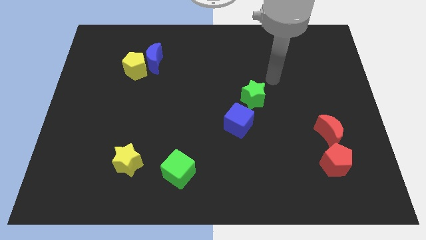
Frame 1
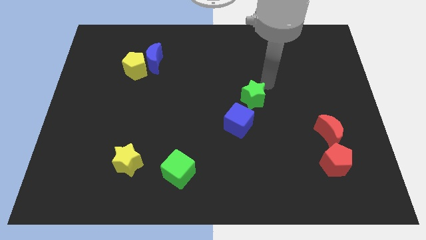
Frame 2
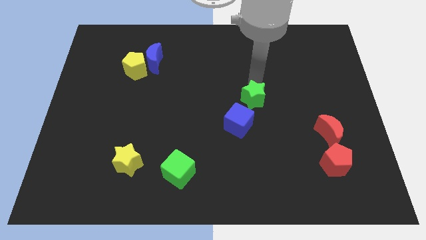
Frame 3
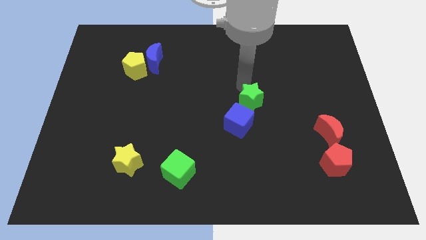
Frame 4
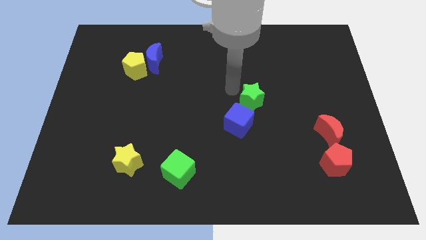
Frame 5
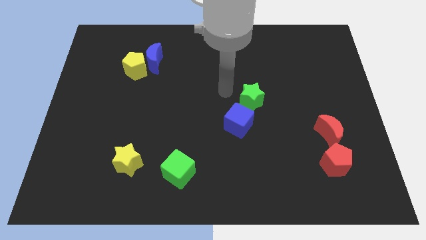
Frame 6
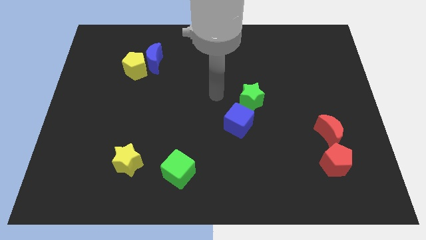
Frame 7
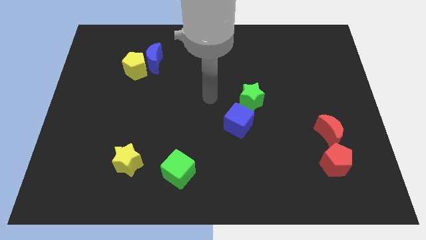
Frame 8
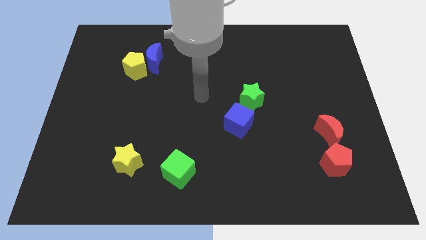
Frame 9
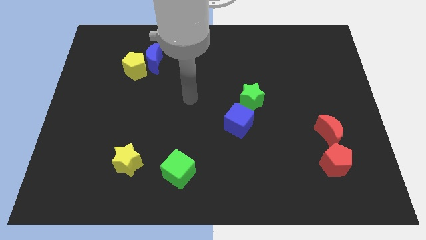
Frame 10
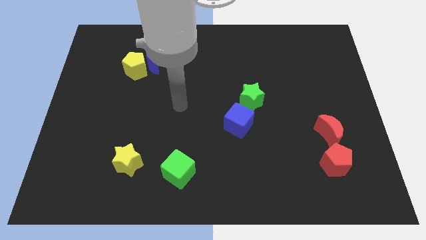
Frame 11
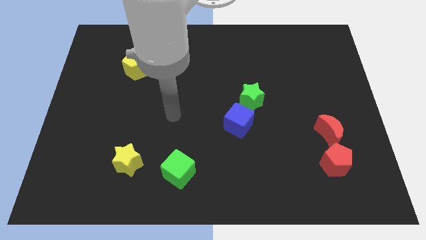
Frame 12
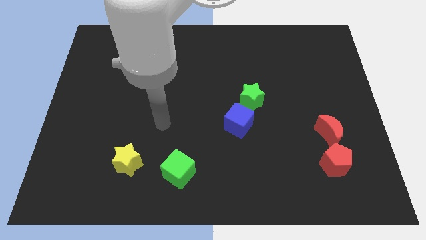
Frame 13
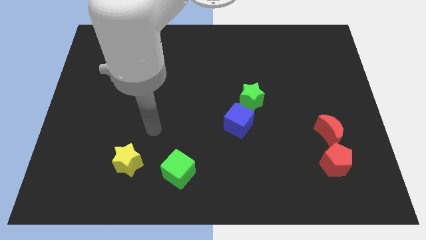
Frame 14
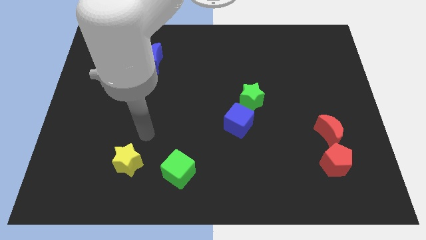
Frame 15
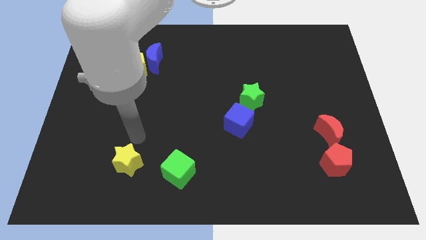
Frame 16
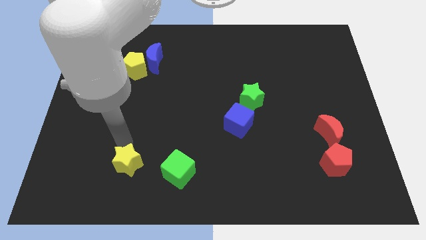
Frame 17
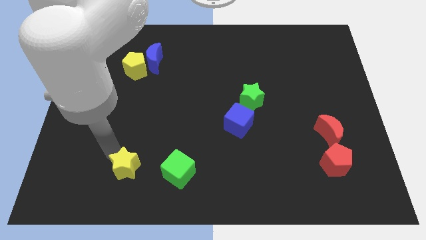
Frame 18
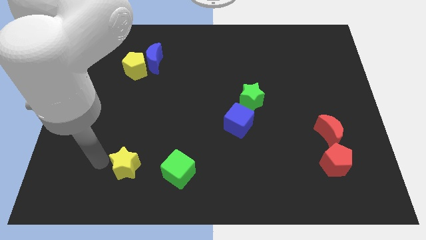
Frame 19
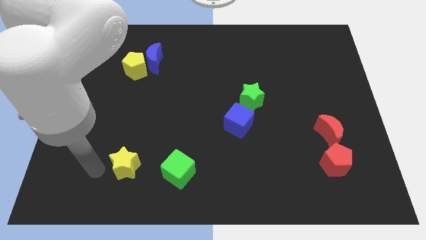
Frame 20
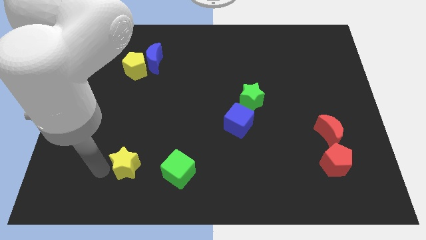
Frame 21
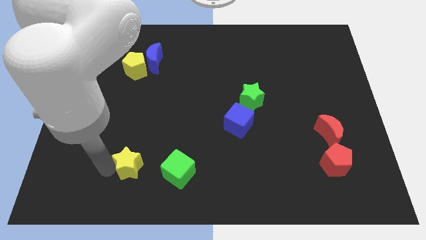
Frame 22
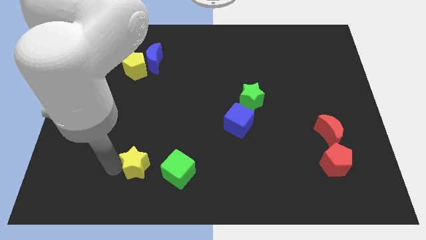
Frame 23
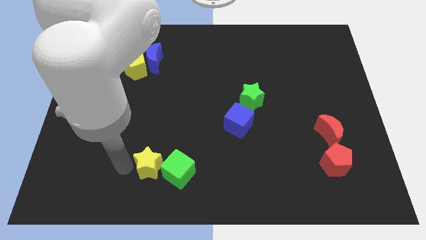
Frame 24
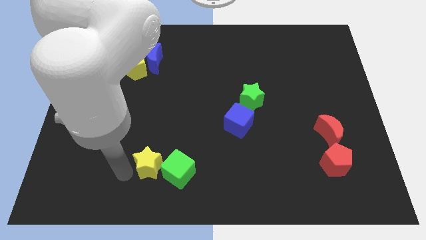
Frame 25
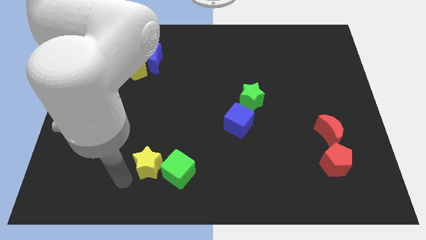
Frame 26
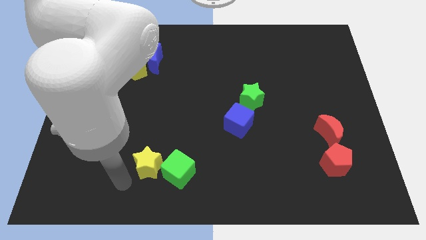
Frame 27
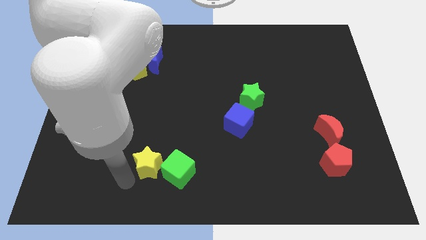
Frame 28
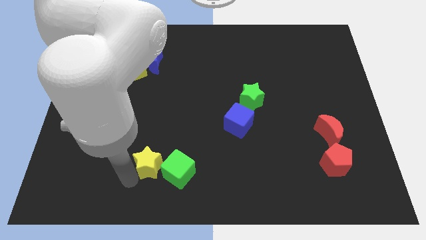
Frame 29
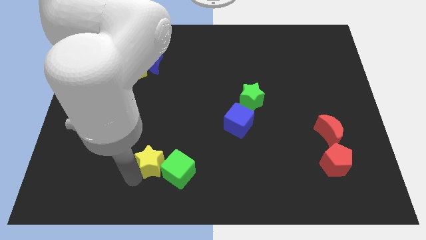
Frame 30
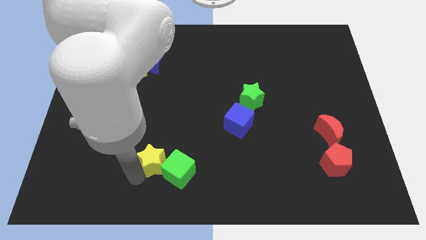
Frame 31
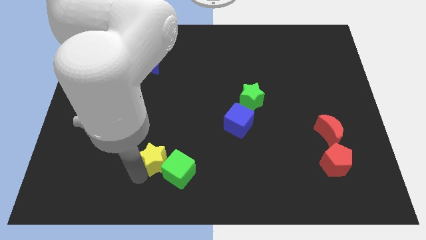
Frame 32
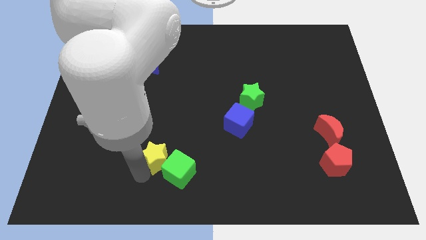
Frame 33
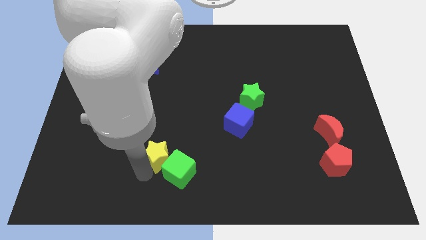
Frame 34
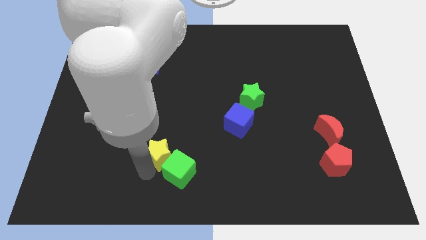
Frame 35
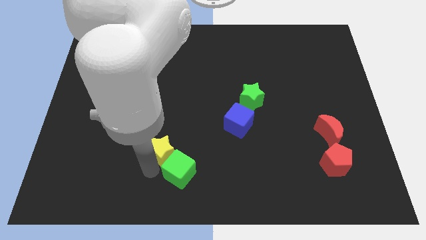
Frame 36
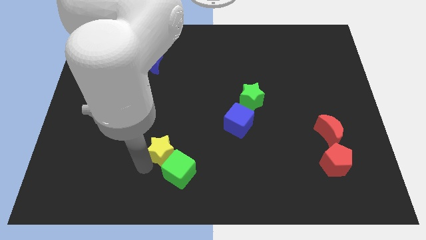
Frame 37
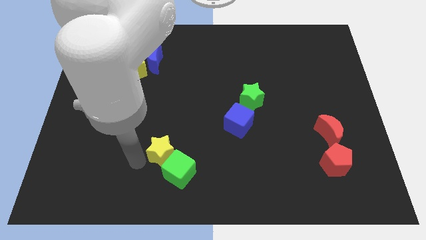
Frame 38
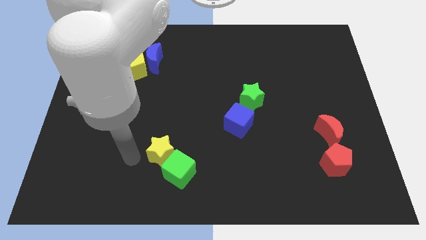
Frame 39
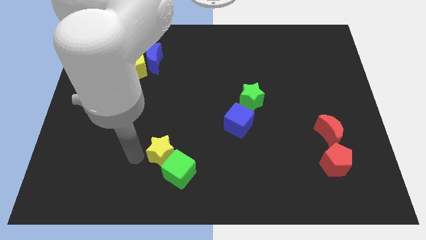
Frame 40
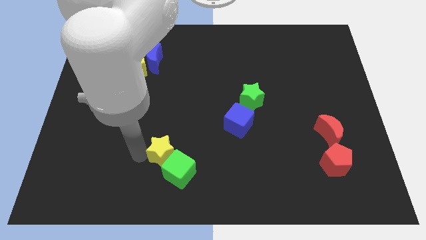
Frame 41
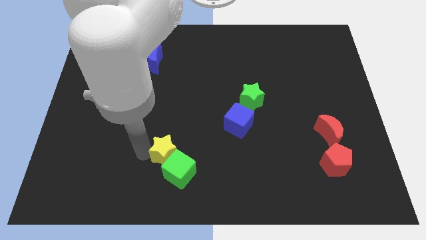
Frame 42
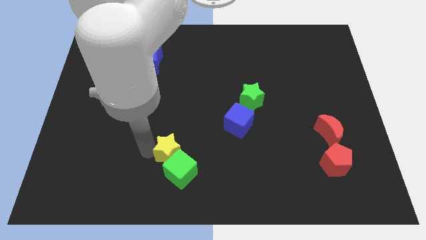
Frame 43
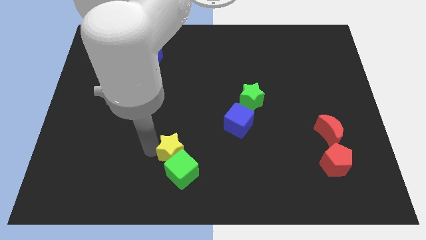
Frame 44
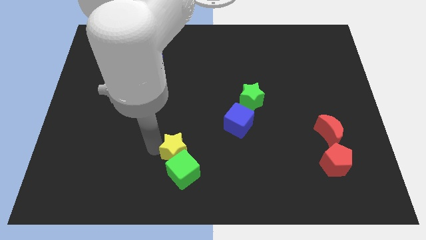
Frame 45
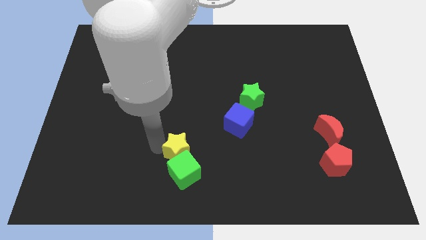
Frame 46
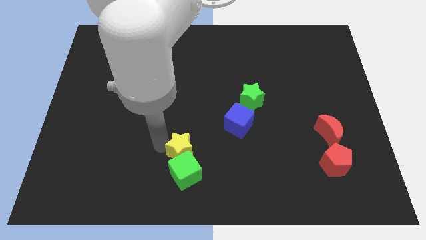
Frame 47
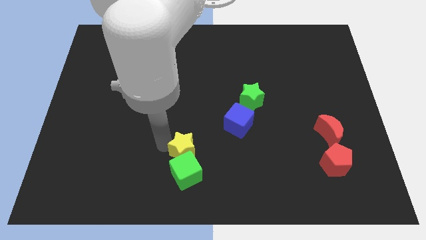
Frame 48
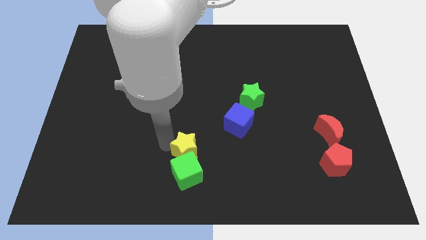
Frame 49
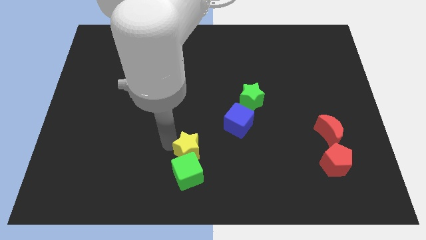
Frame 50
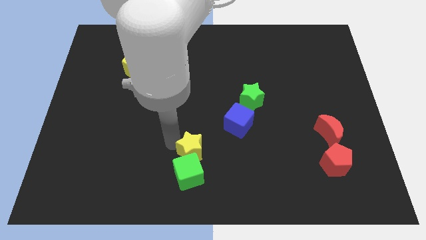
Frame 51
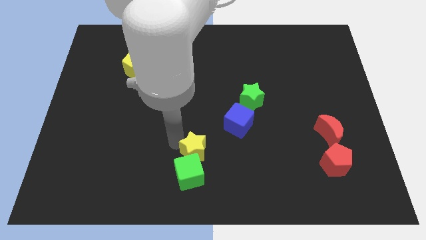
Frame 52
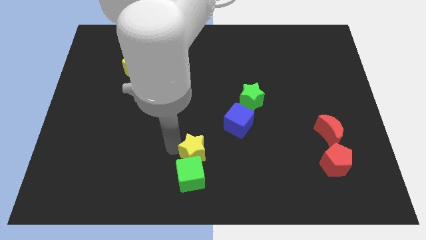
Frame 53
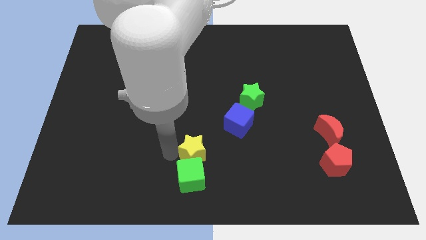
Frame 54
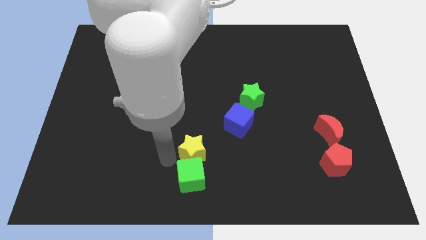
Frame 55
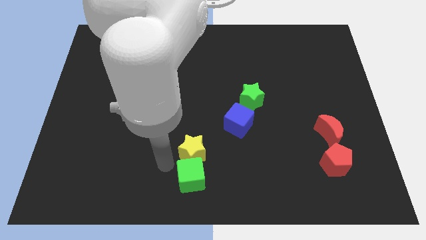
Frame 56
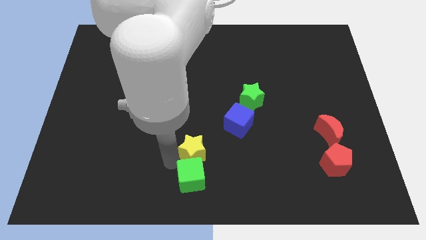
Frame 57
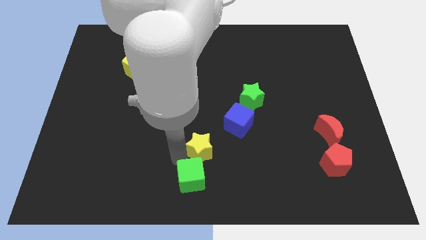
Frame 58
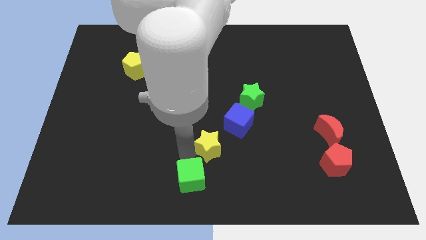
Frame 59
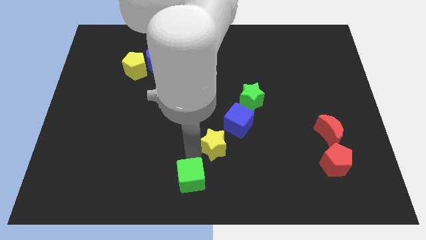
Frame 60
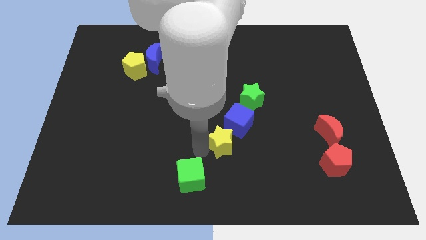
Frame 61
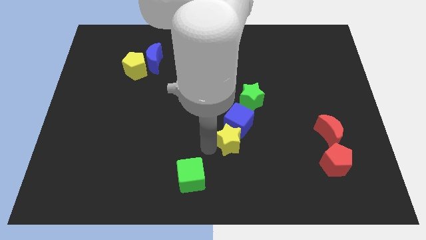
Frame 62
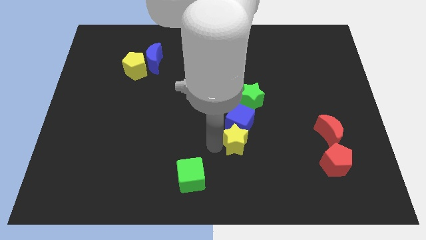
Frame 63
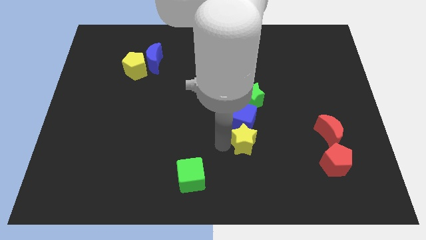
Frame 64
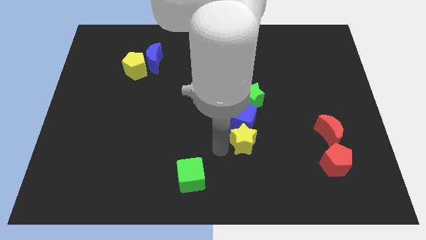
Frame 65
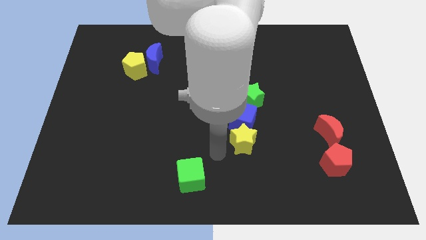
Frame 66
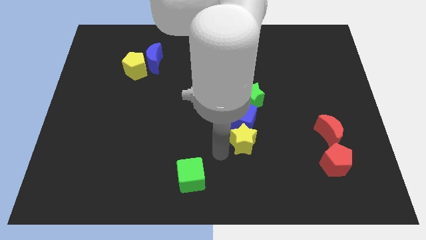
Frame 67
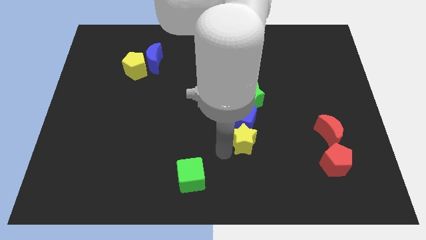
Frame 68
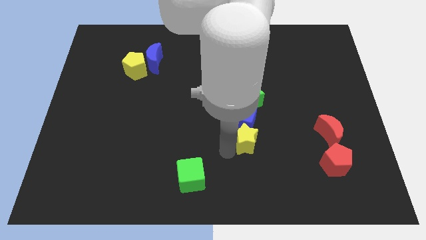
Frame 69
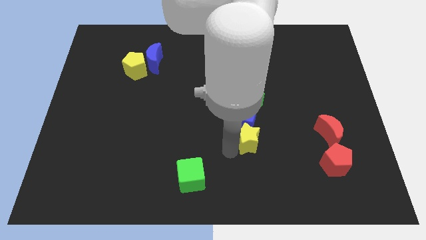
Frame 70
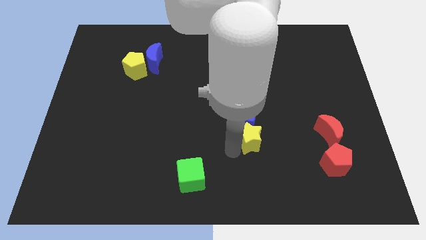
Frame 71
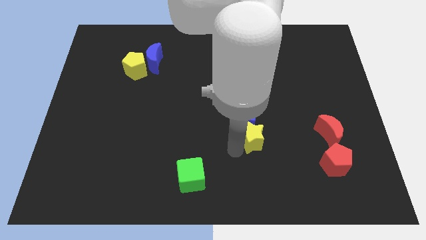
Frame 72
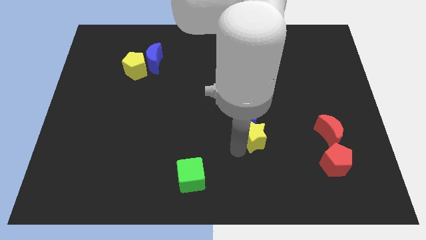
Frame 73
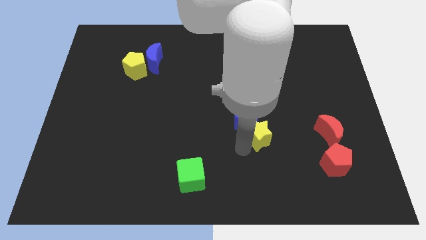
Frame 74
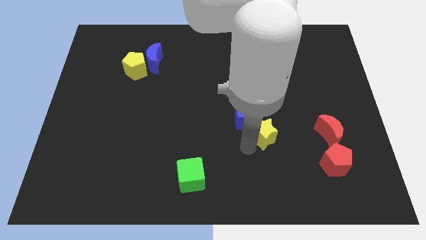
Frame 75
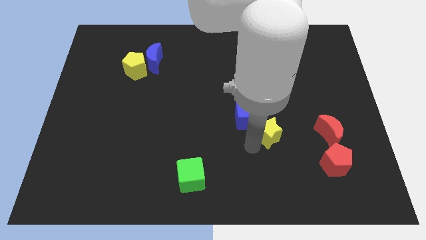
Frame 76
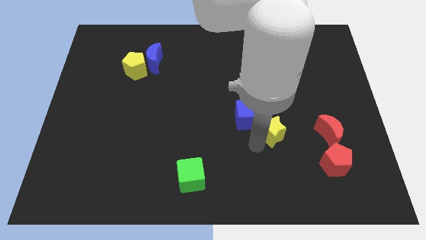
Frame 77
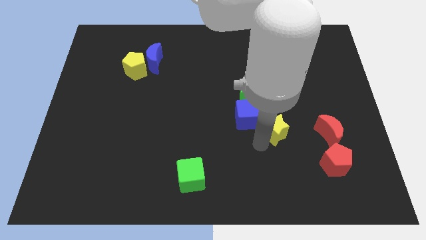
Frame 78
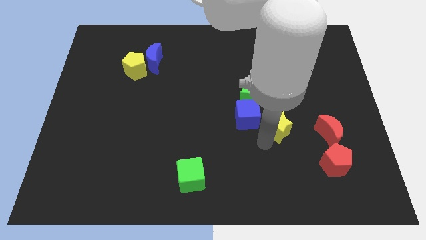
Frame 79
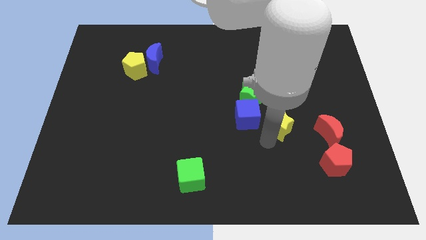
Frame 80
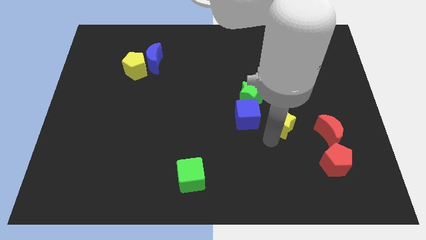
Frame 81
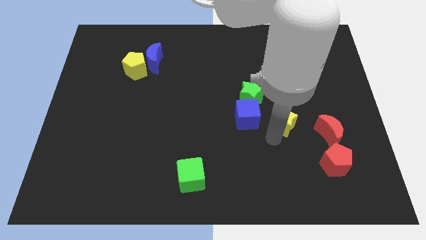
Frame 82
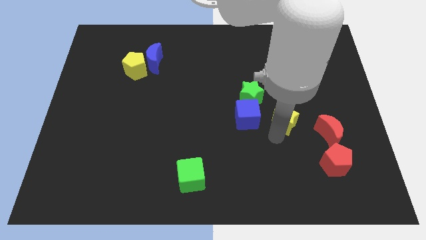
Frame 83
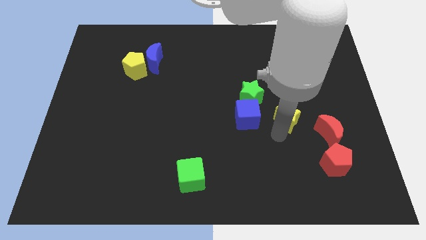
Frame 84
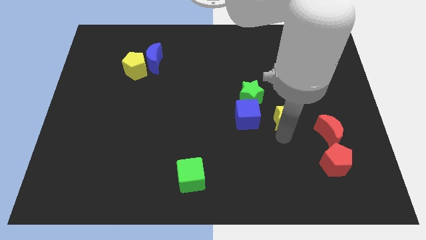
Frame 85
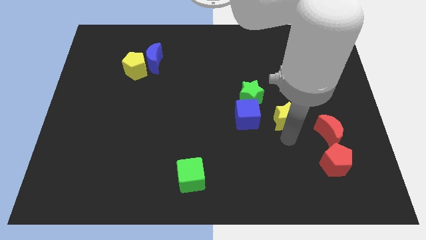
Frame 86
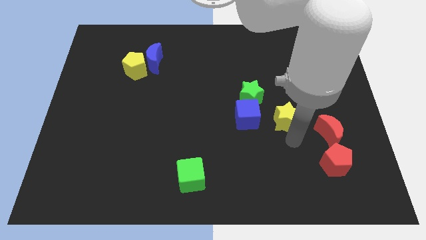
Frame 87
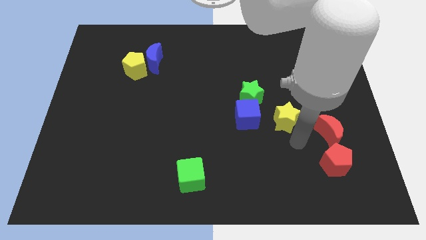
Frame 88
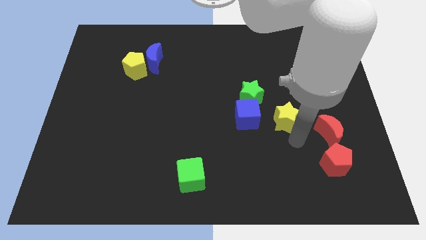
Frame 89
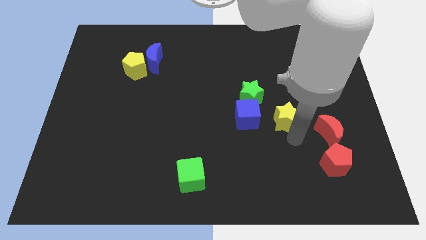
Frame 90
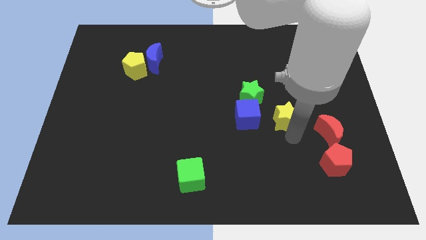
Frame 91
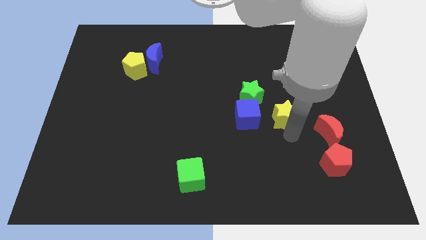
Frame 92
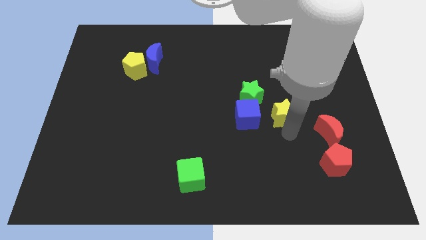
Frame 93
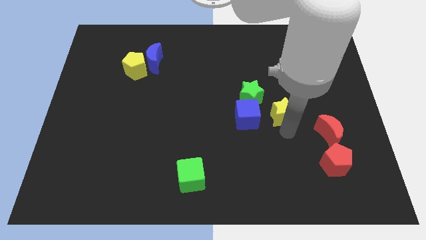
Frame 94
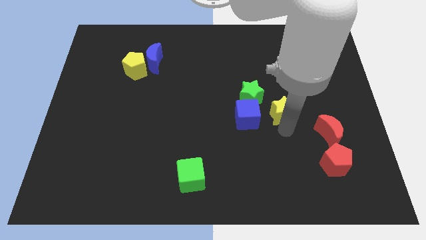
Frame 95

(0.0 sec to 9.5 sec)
put the yellow star diagonally up and to the right of the blue cube
